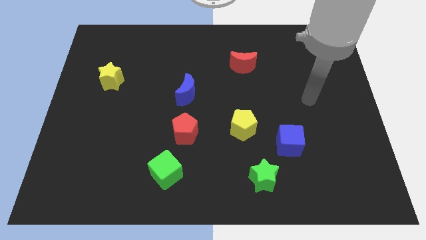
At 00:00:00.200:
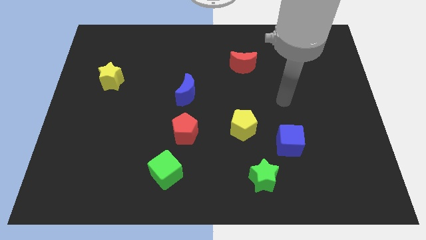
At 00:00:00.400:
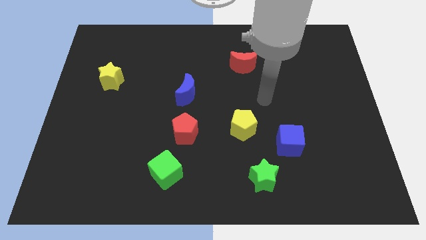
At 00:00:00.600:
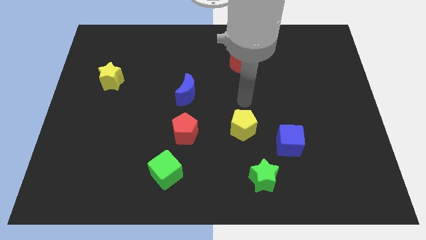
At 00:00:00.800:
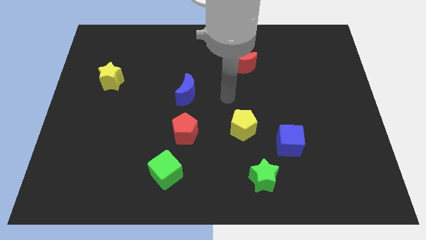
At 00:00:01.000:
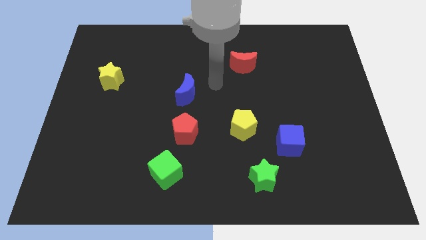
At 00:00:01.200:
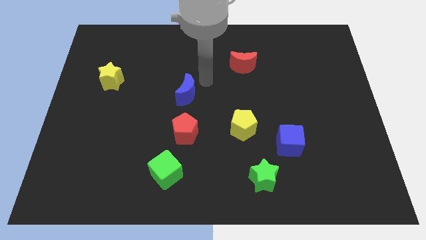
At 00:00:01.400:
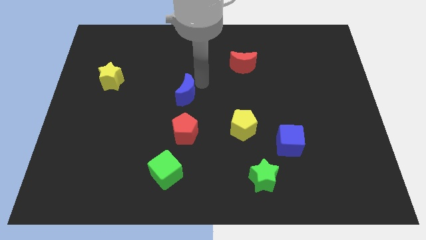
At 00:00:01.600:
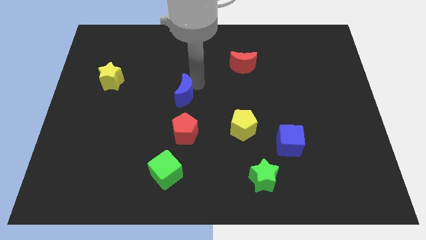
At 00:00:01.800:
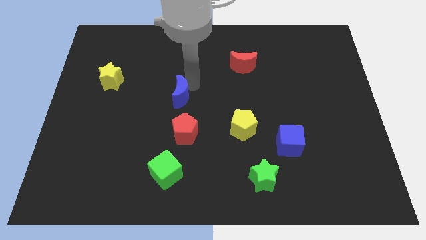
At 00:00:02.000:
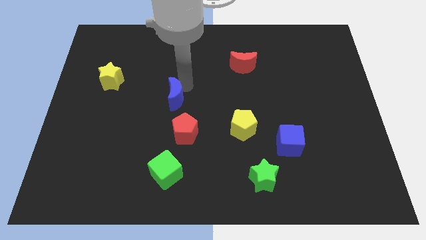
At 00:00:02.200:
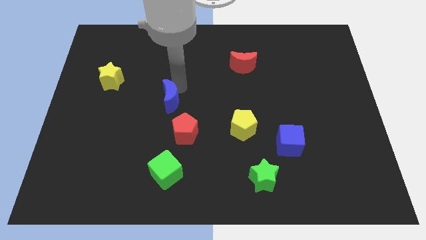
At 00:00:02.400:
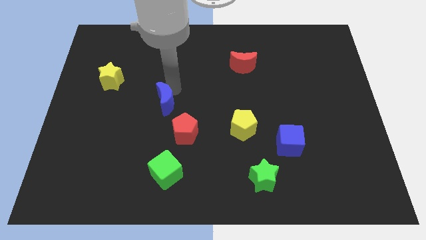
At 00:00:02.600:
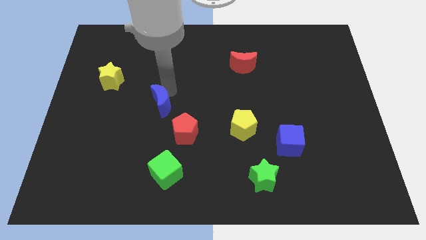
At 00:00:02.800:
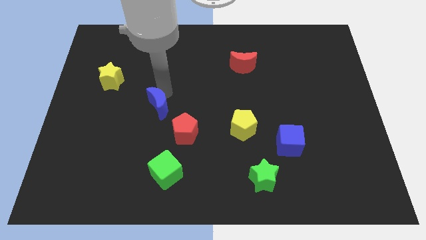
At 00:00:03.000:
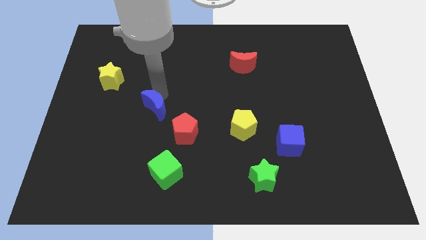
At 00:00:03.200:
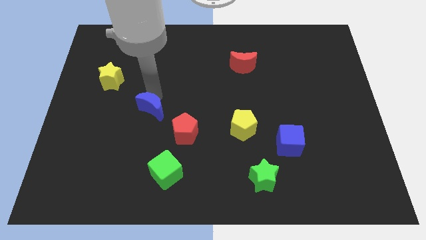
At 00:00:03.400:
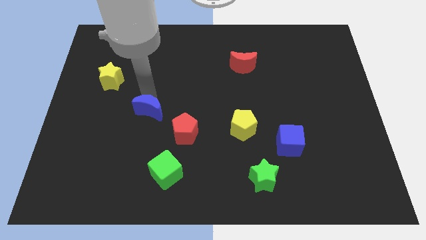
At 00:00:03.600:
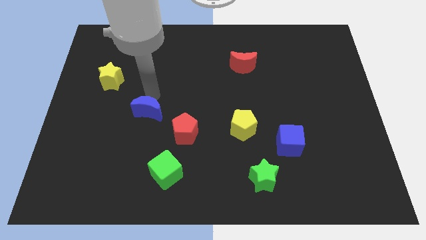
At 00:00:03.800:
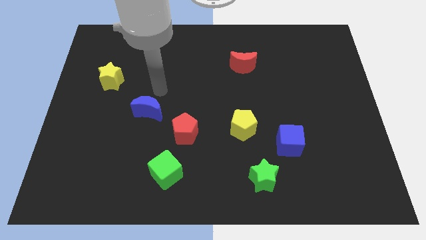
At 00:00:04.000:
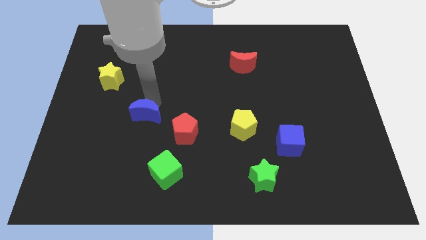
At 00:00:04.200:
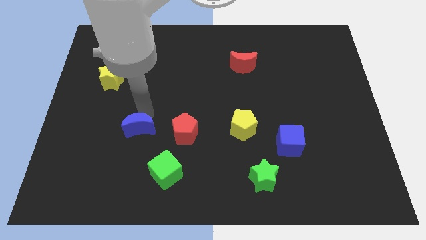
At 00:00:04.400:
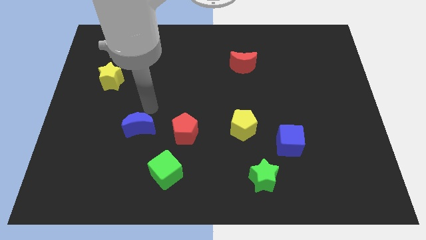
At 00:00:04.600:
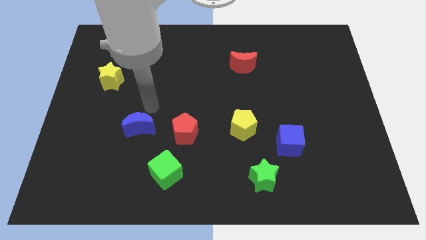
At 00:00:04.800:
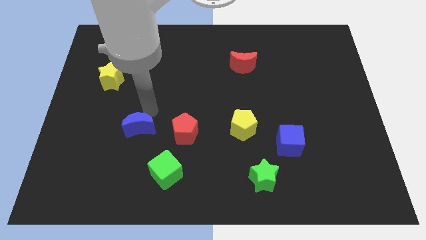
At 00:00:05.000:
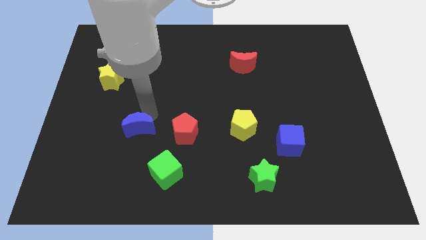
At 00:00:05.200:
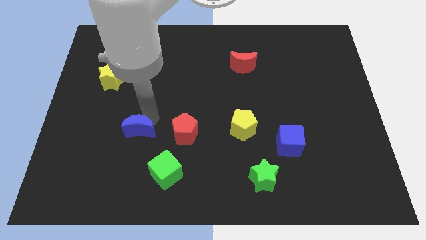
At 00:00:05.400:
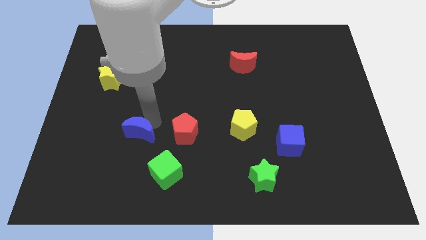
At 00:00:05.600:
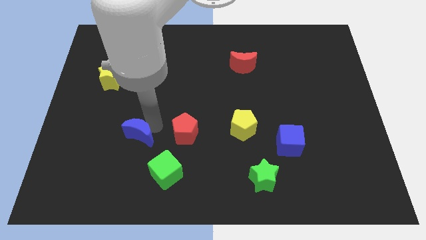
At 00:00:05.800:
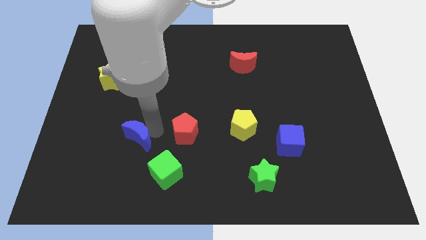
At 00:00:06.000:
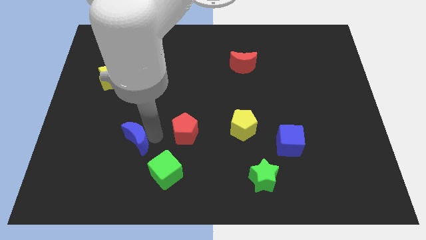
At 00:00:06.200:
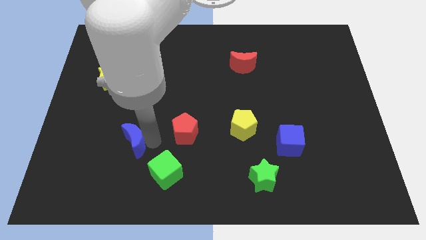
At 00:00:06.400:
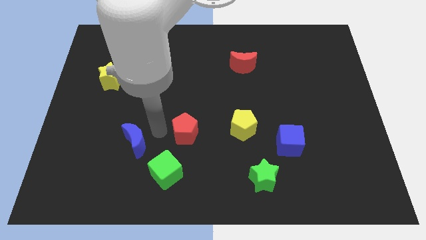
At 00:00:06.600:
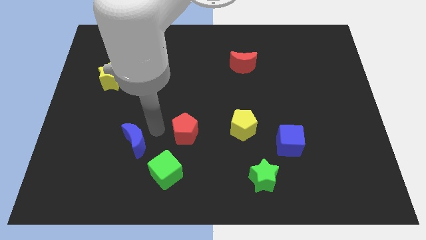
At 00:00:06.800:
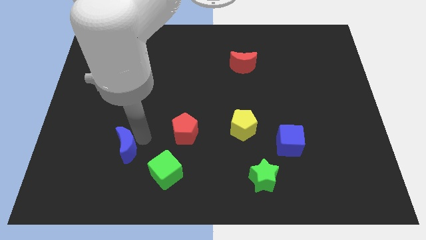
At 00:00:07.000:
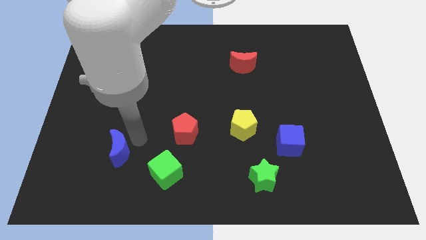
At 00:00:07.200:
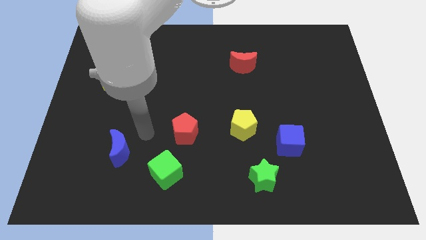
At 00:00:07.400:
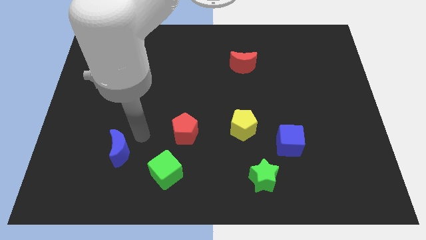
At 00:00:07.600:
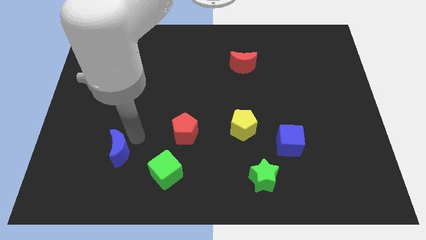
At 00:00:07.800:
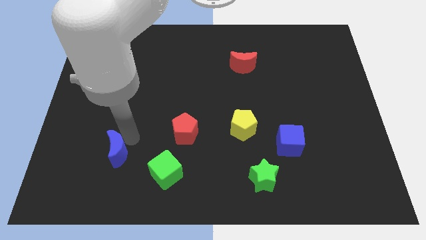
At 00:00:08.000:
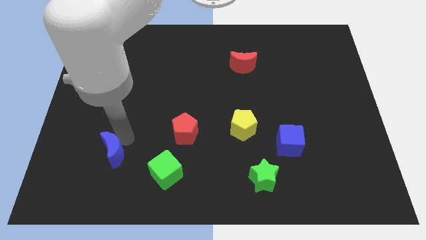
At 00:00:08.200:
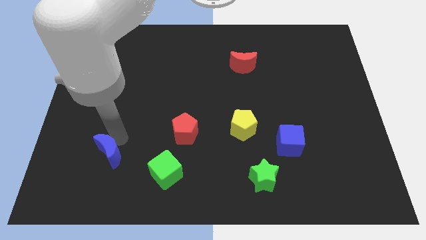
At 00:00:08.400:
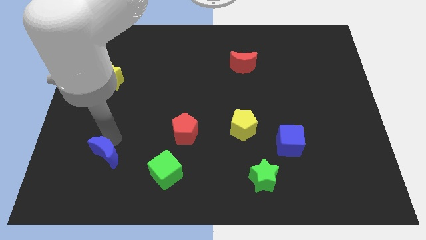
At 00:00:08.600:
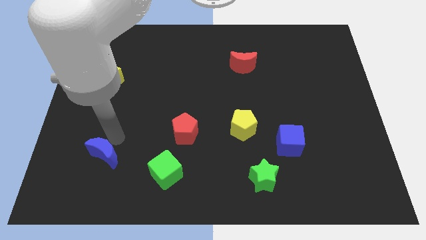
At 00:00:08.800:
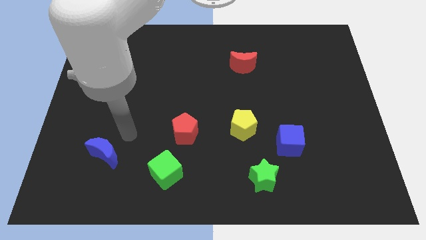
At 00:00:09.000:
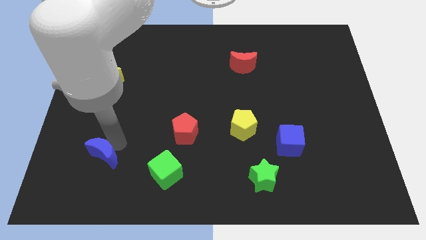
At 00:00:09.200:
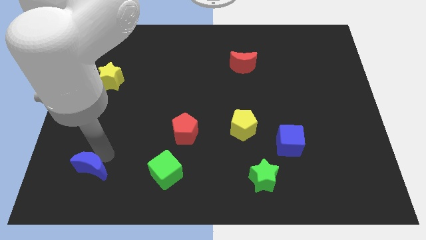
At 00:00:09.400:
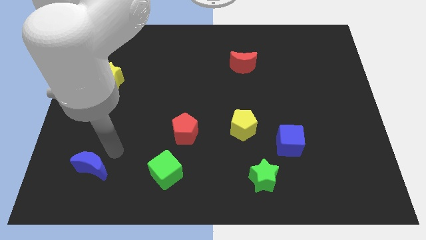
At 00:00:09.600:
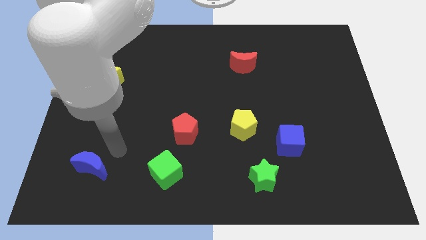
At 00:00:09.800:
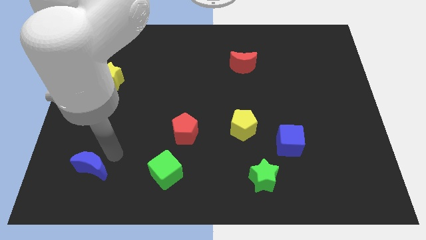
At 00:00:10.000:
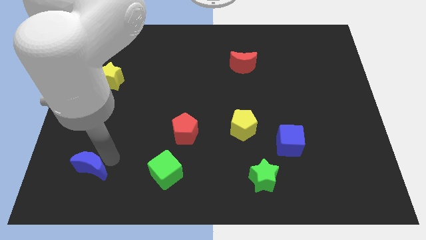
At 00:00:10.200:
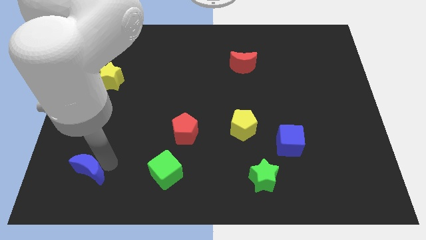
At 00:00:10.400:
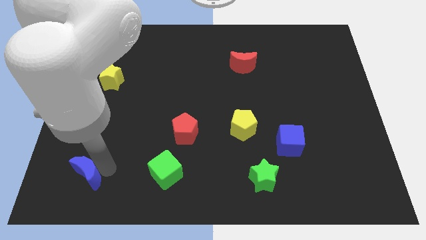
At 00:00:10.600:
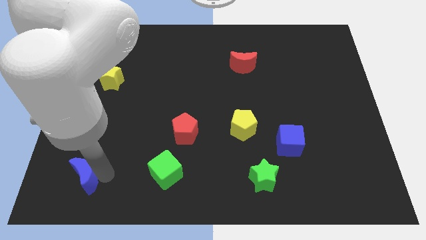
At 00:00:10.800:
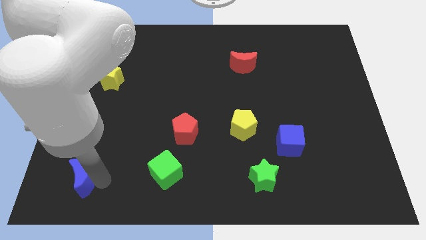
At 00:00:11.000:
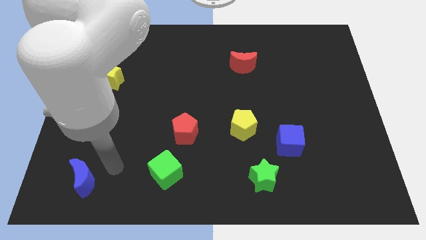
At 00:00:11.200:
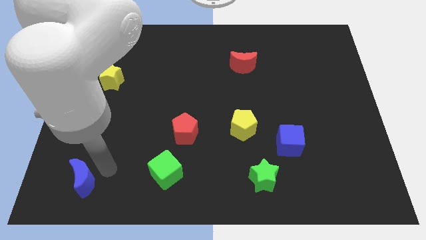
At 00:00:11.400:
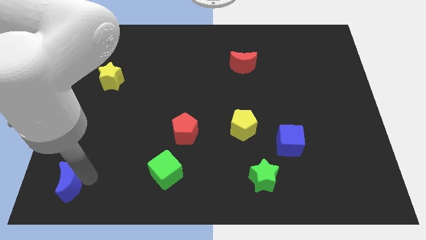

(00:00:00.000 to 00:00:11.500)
slide the blue moon to the bottom left corner
